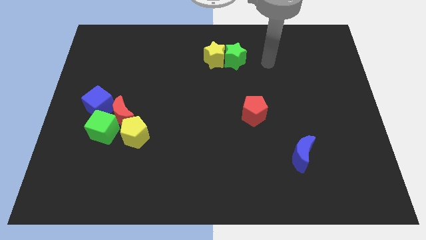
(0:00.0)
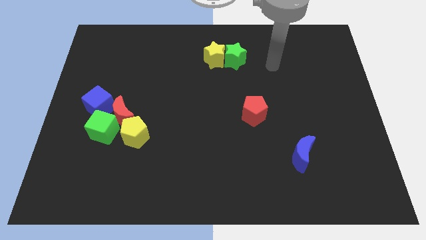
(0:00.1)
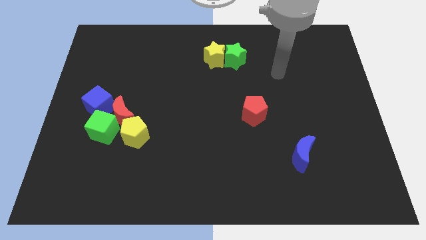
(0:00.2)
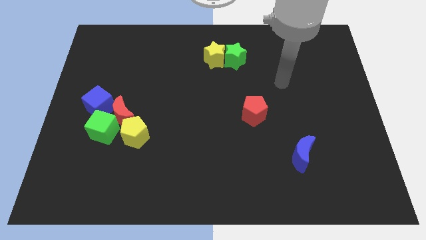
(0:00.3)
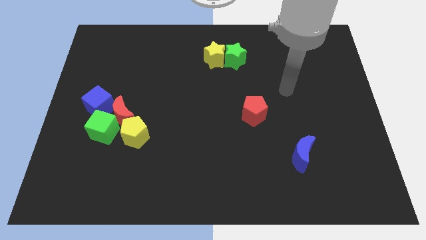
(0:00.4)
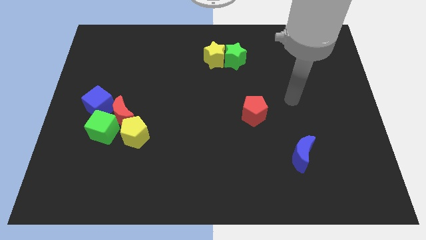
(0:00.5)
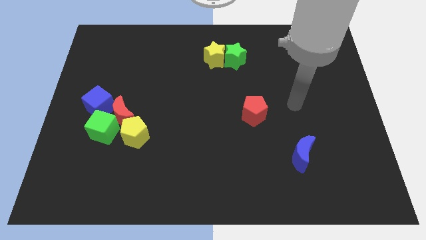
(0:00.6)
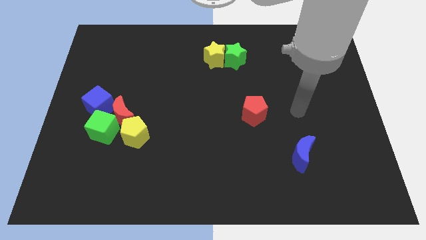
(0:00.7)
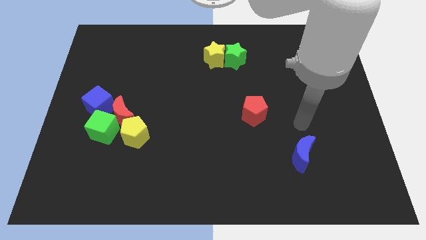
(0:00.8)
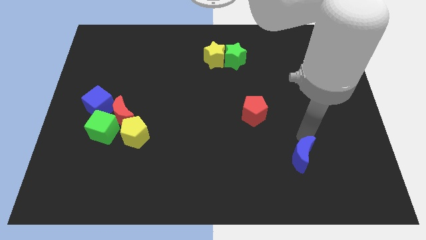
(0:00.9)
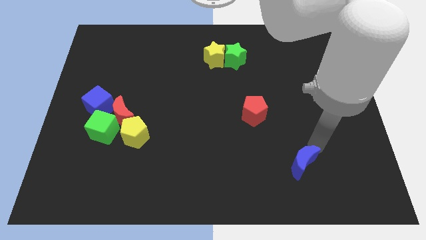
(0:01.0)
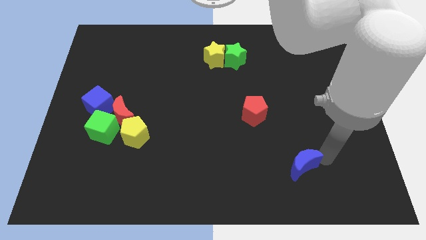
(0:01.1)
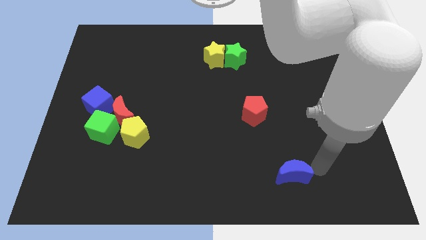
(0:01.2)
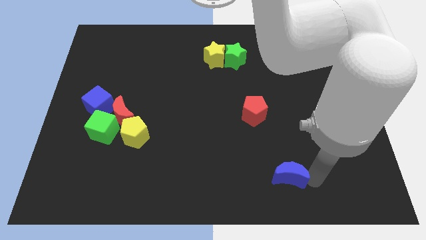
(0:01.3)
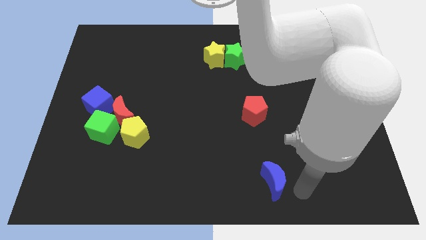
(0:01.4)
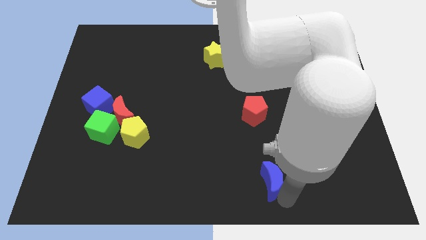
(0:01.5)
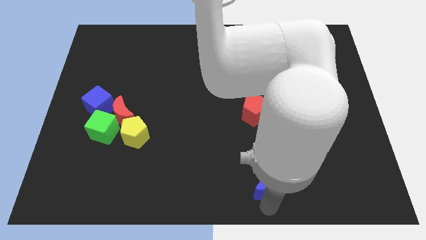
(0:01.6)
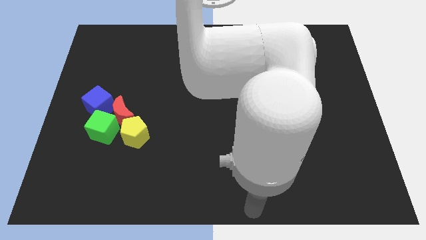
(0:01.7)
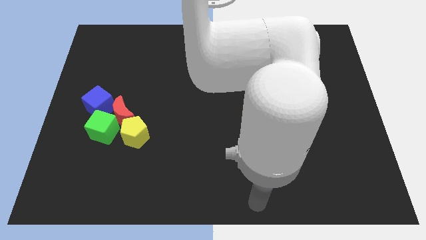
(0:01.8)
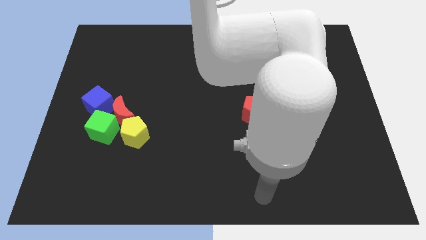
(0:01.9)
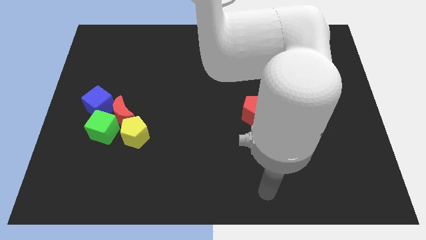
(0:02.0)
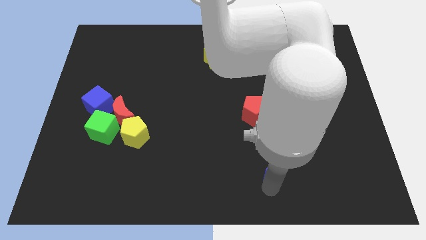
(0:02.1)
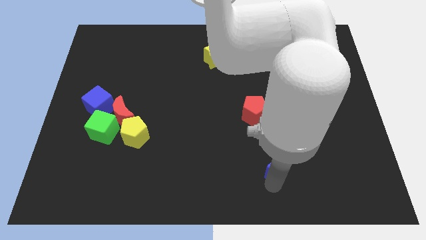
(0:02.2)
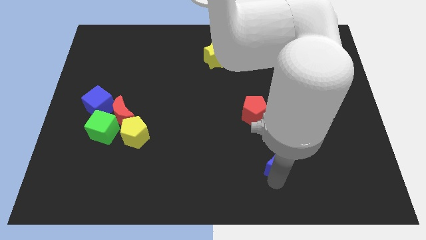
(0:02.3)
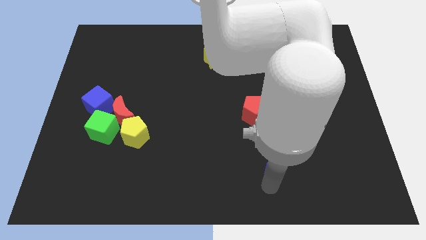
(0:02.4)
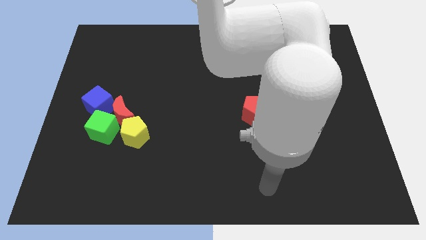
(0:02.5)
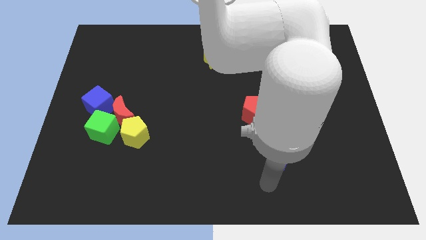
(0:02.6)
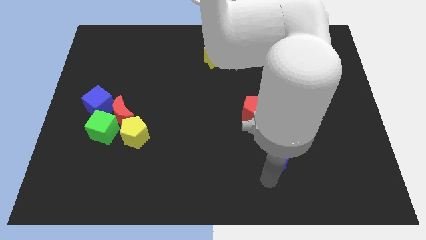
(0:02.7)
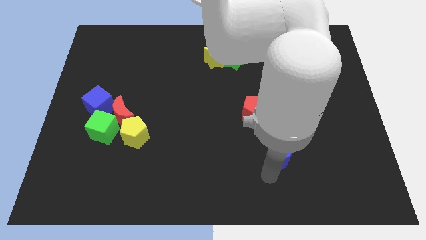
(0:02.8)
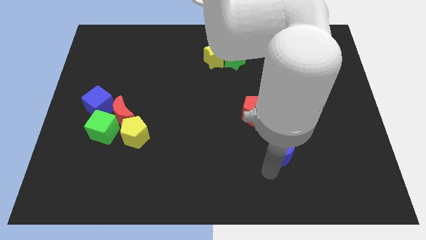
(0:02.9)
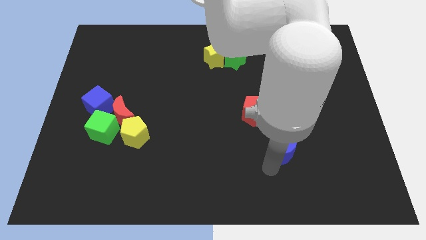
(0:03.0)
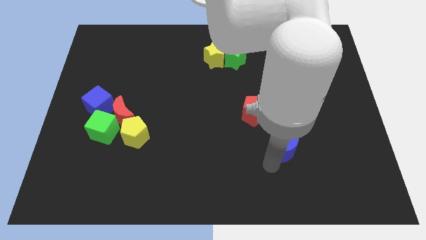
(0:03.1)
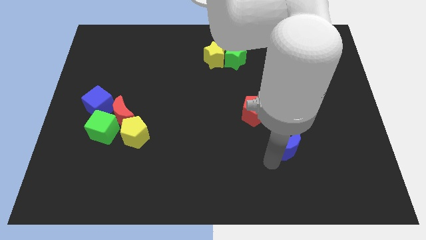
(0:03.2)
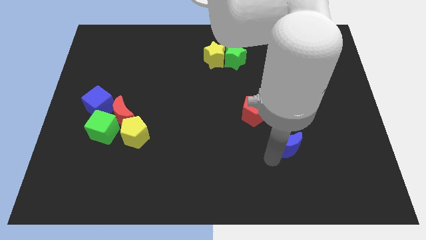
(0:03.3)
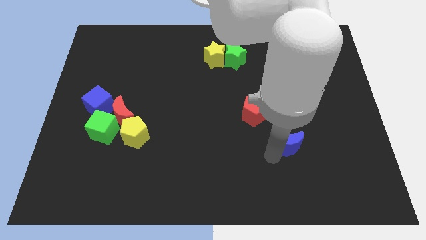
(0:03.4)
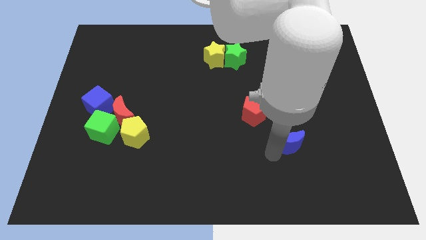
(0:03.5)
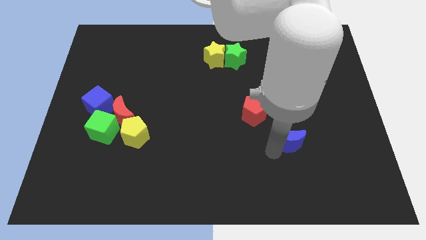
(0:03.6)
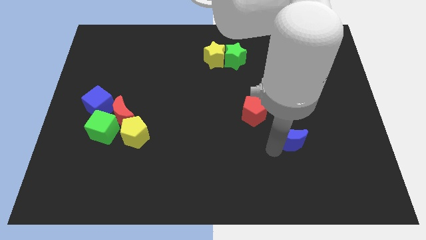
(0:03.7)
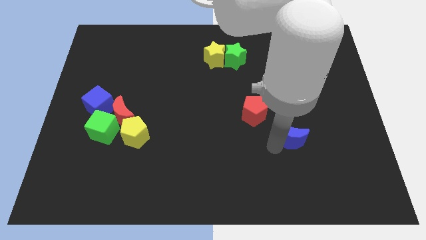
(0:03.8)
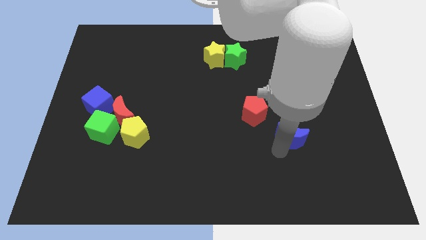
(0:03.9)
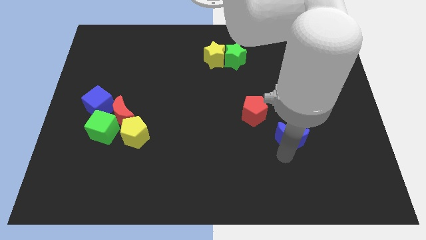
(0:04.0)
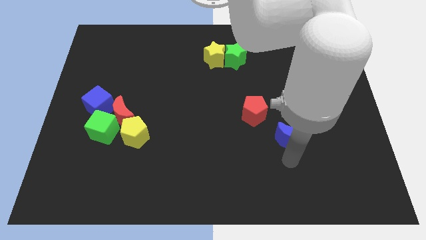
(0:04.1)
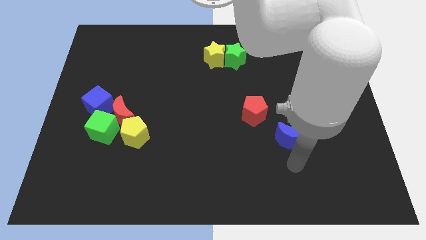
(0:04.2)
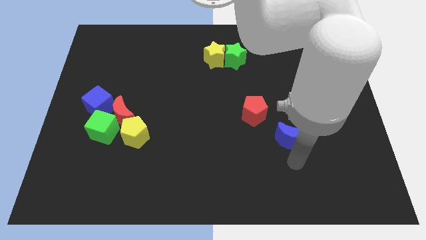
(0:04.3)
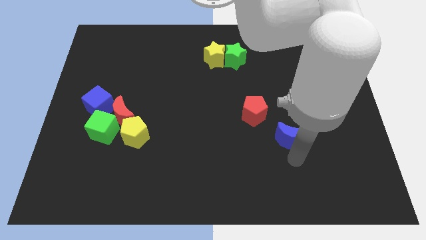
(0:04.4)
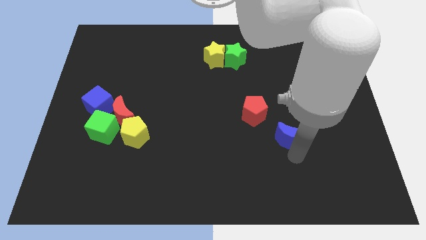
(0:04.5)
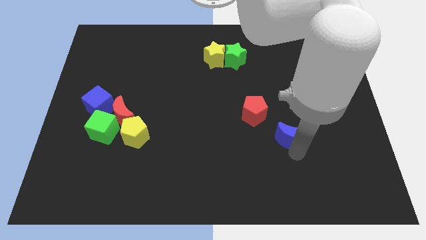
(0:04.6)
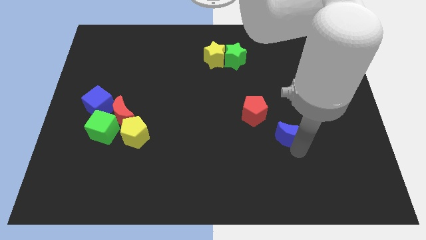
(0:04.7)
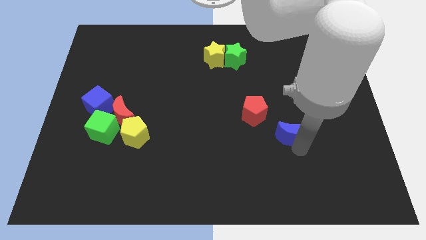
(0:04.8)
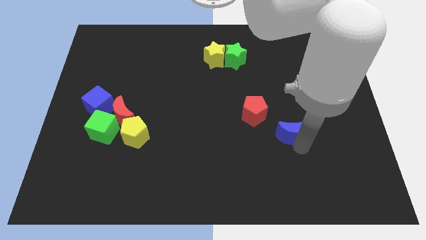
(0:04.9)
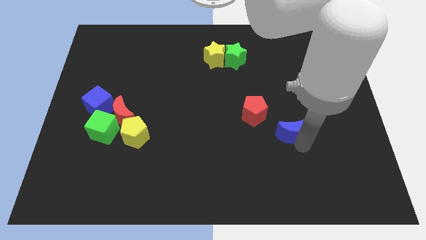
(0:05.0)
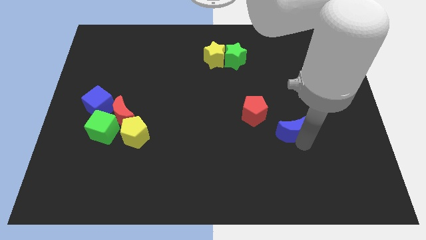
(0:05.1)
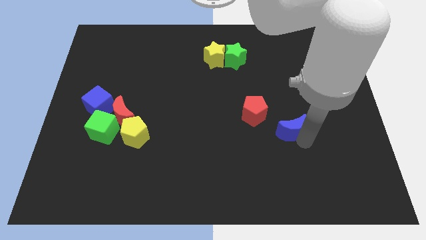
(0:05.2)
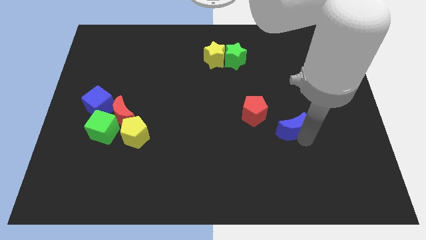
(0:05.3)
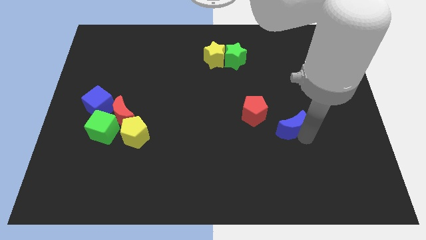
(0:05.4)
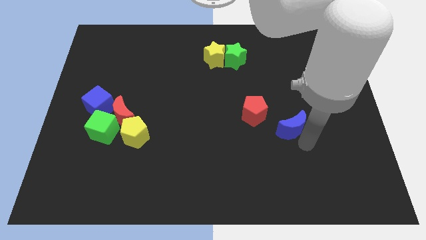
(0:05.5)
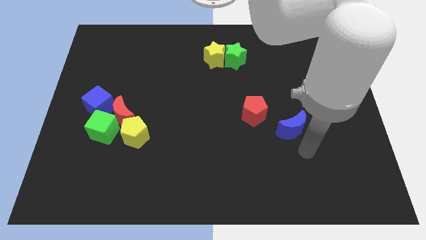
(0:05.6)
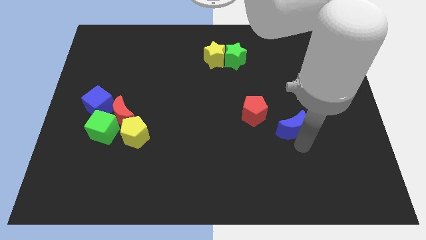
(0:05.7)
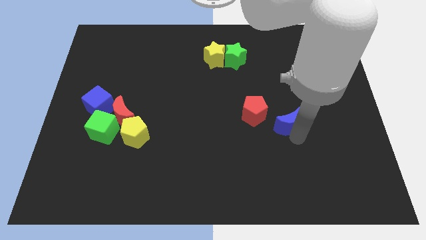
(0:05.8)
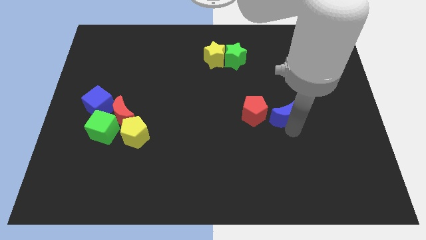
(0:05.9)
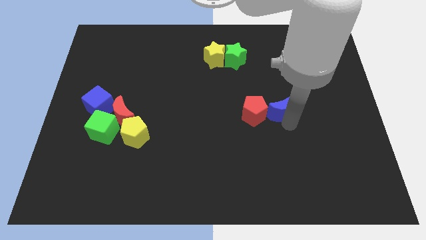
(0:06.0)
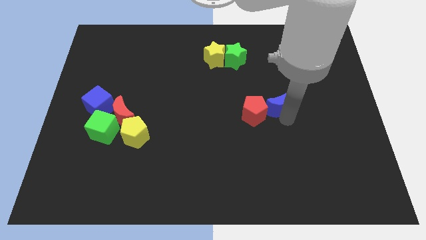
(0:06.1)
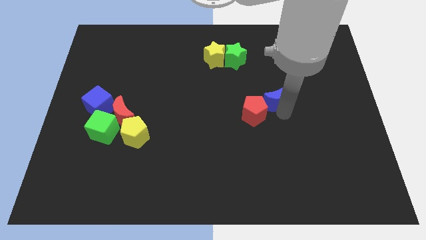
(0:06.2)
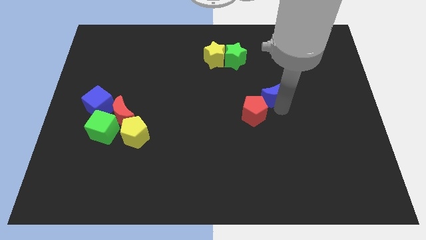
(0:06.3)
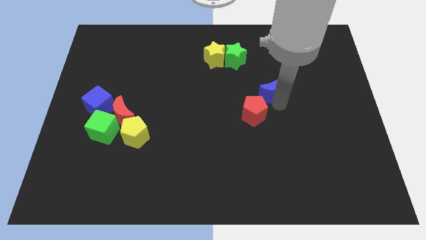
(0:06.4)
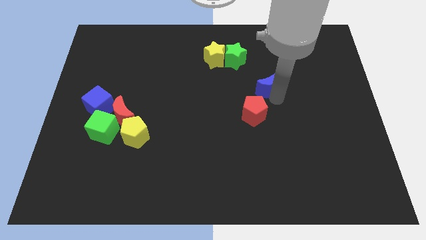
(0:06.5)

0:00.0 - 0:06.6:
push the blue moon to the bottom right side of the green star
